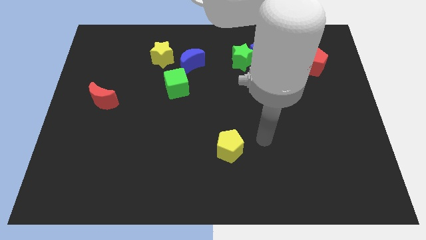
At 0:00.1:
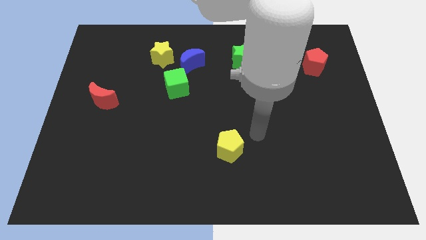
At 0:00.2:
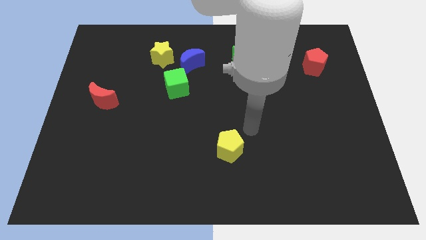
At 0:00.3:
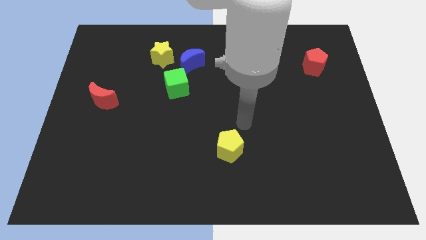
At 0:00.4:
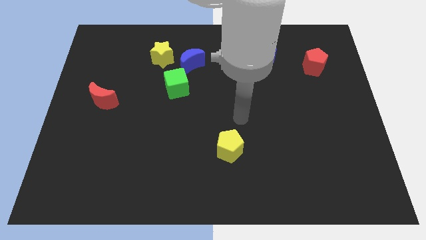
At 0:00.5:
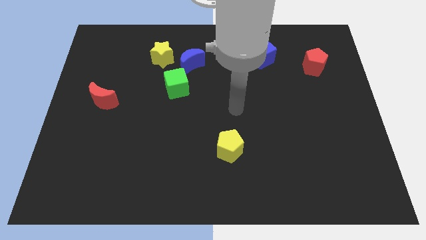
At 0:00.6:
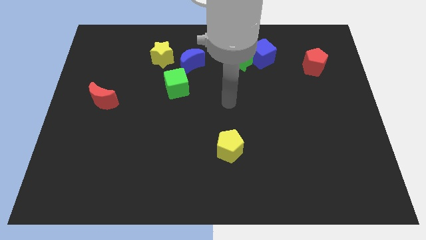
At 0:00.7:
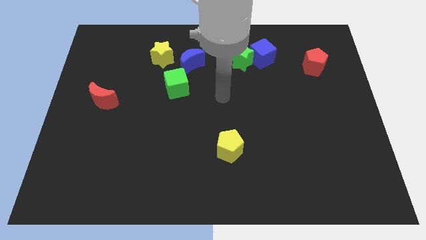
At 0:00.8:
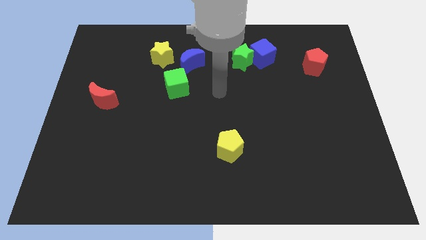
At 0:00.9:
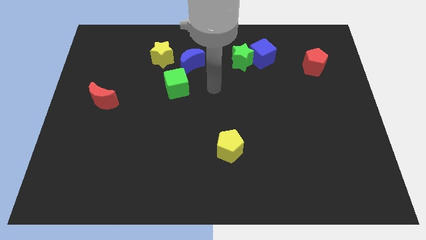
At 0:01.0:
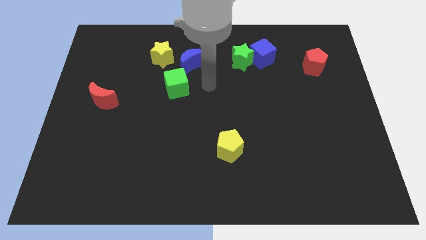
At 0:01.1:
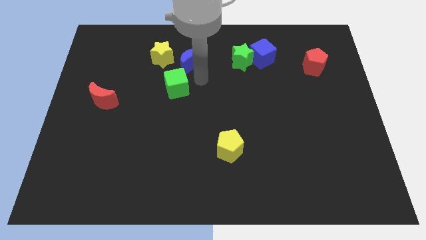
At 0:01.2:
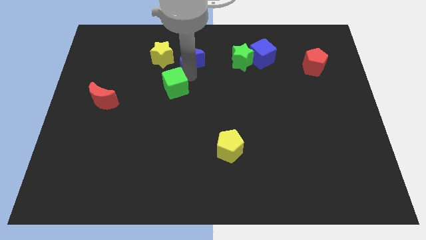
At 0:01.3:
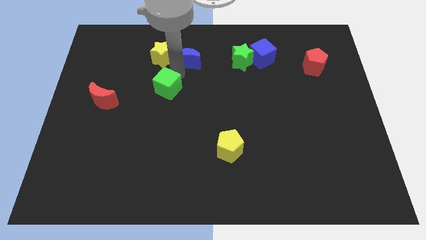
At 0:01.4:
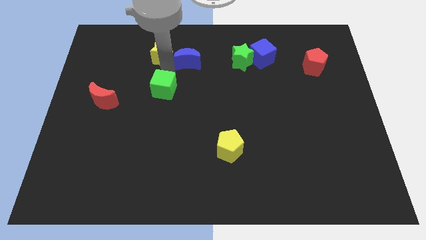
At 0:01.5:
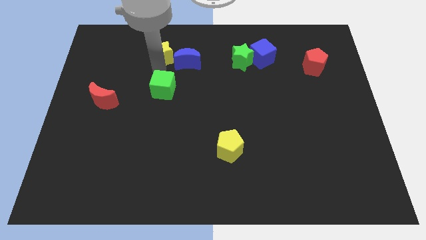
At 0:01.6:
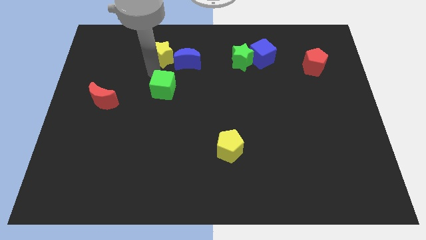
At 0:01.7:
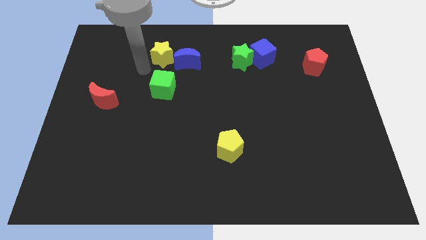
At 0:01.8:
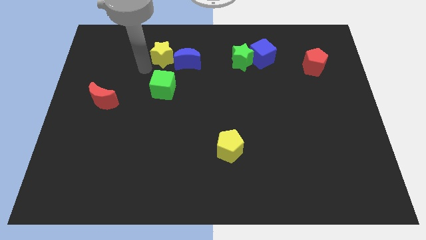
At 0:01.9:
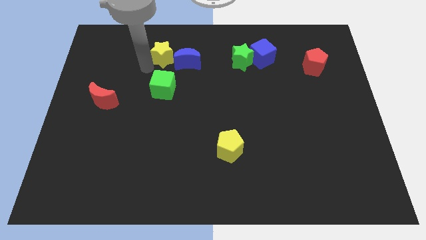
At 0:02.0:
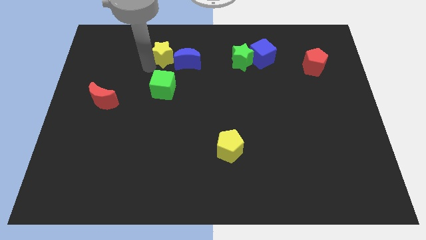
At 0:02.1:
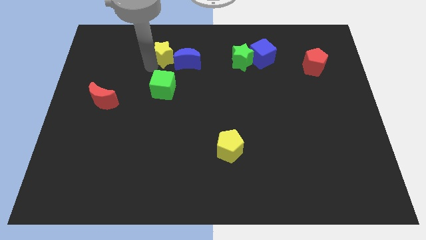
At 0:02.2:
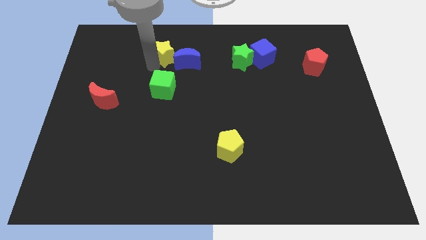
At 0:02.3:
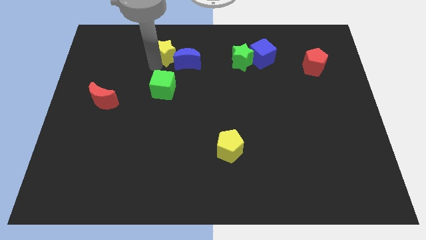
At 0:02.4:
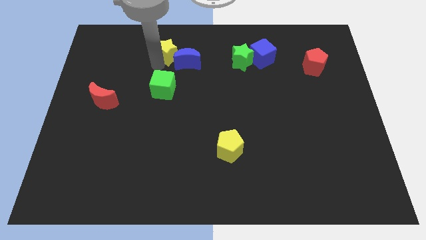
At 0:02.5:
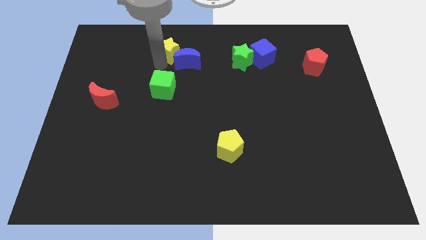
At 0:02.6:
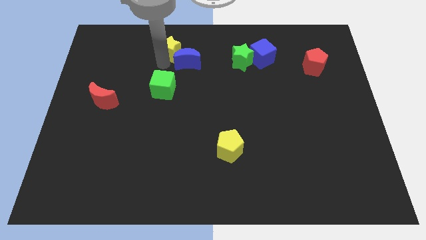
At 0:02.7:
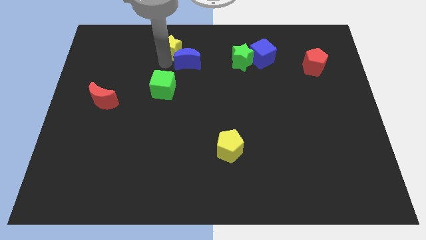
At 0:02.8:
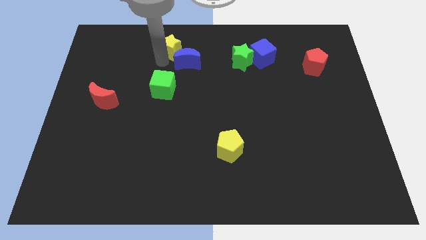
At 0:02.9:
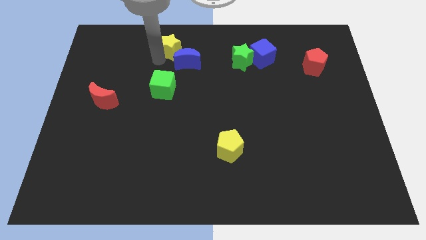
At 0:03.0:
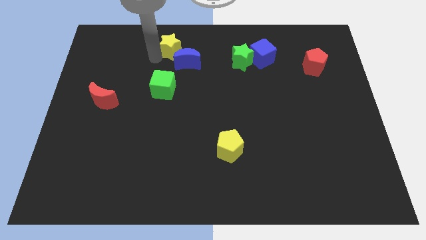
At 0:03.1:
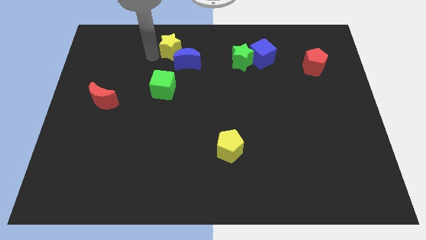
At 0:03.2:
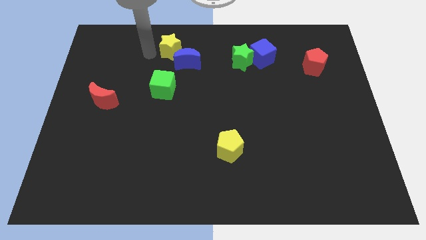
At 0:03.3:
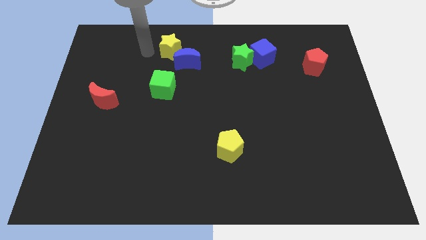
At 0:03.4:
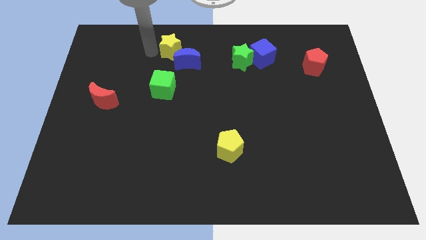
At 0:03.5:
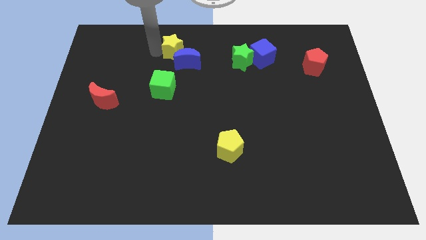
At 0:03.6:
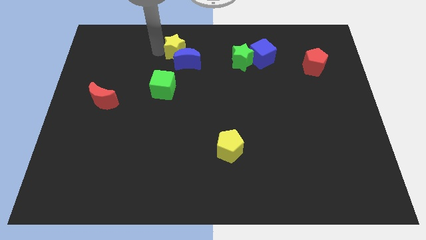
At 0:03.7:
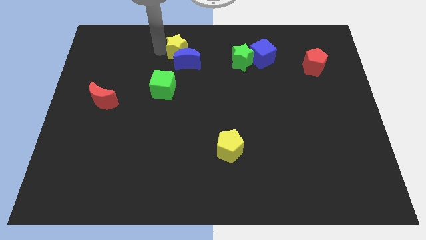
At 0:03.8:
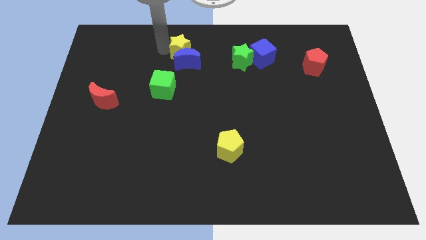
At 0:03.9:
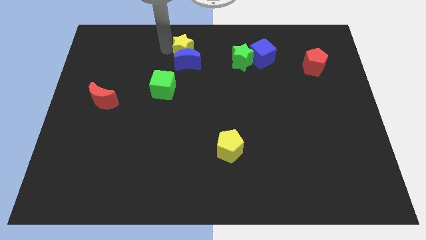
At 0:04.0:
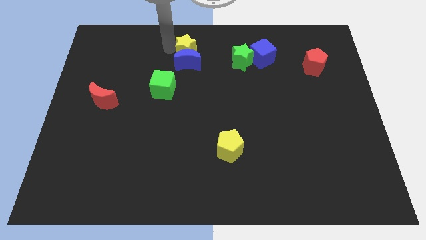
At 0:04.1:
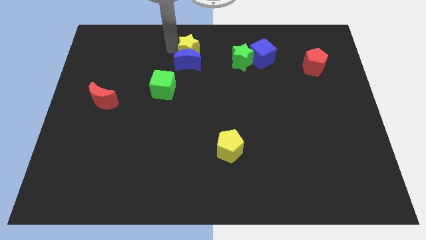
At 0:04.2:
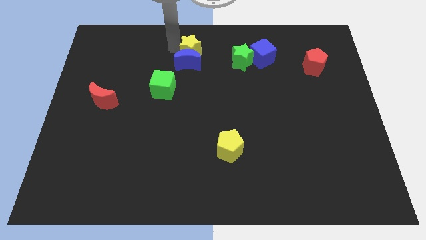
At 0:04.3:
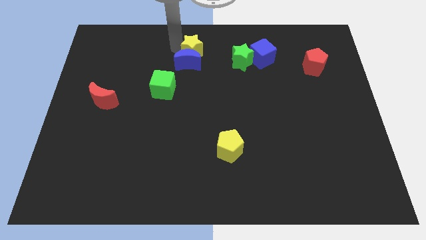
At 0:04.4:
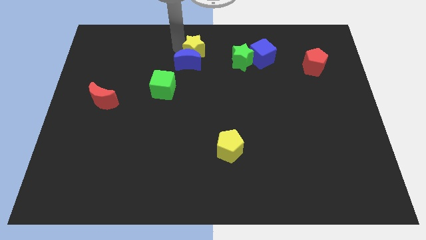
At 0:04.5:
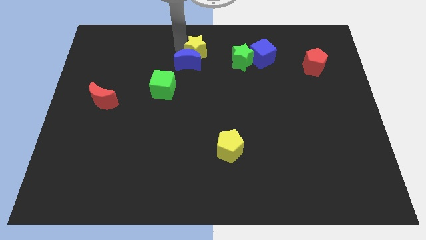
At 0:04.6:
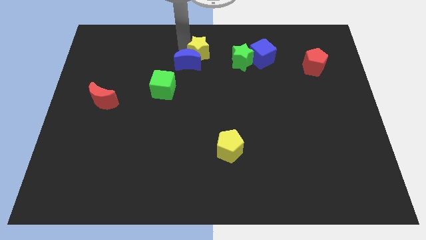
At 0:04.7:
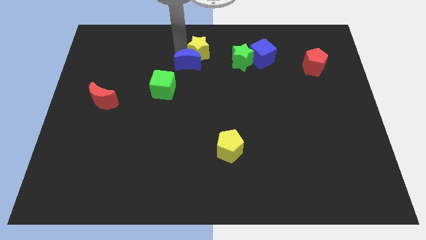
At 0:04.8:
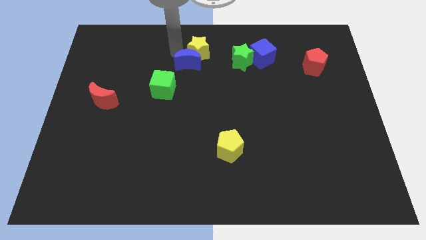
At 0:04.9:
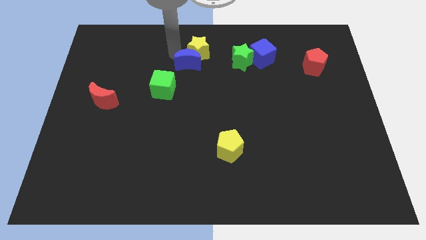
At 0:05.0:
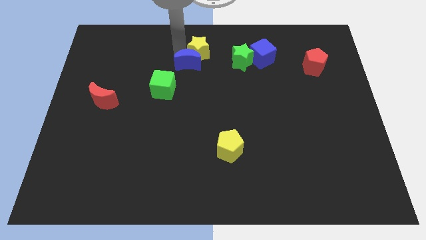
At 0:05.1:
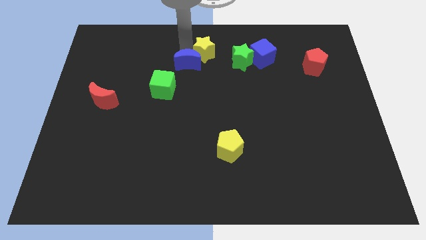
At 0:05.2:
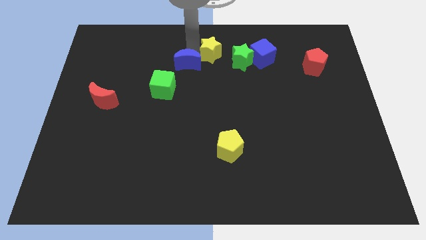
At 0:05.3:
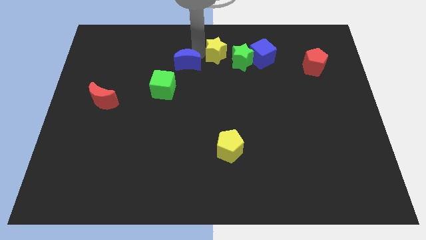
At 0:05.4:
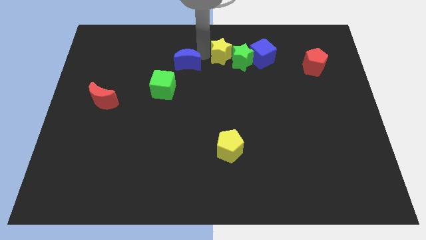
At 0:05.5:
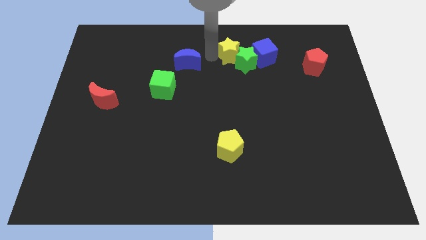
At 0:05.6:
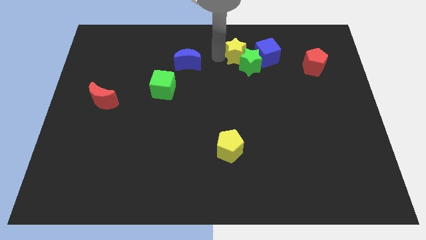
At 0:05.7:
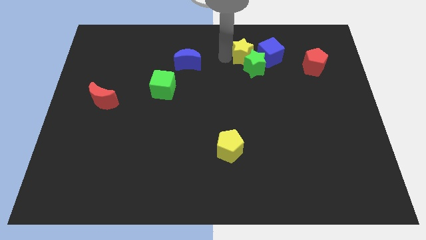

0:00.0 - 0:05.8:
push the yellow star to the right

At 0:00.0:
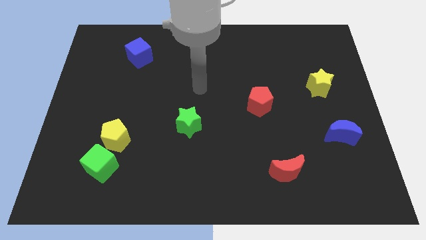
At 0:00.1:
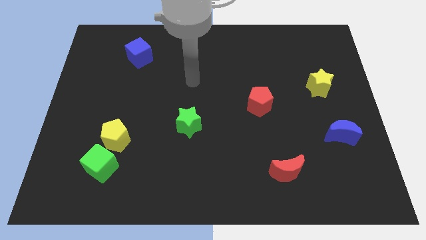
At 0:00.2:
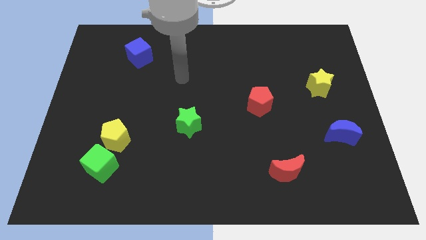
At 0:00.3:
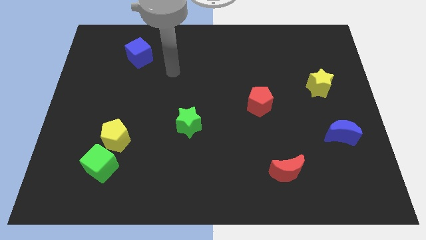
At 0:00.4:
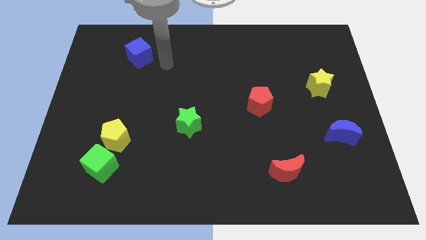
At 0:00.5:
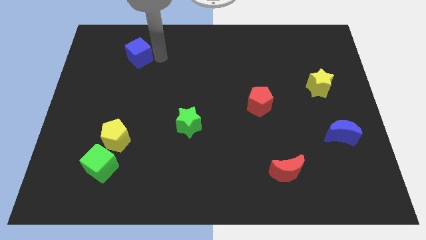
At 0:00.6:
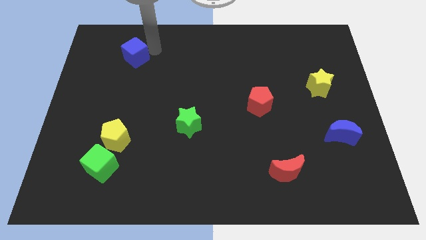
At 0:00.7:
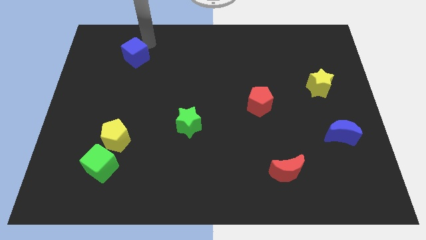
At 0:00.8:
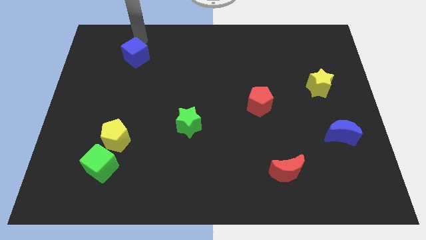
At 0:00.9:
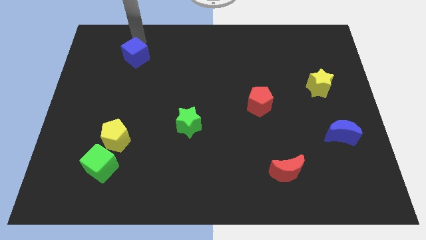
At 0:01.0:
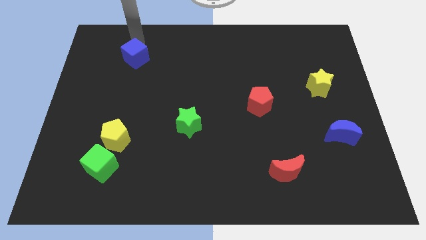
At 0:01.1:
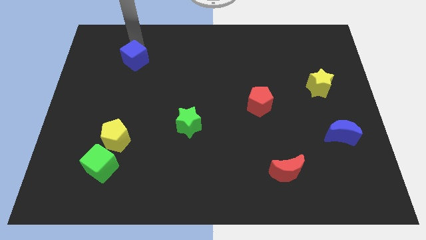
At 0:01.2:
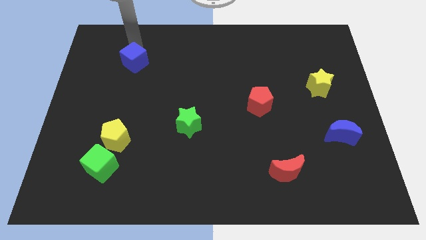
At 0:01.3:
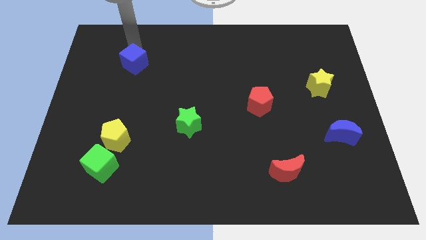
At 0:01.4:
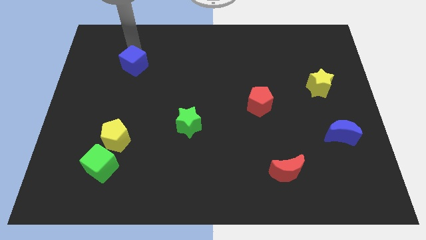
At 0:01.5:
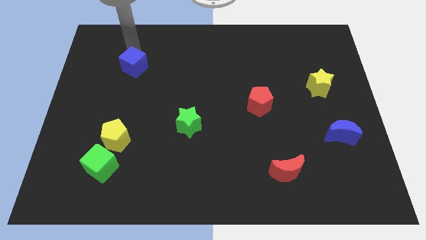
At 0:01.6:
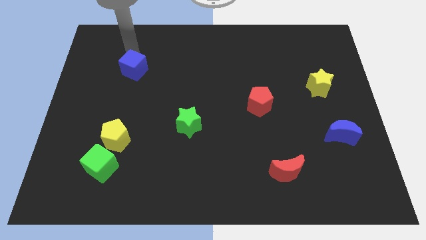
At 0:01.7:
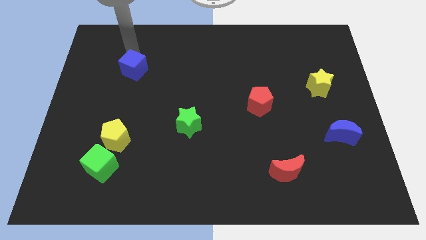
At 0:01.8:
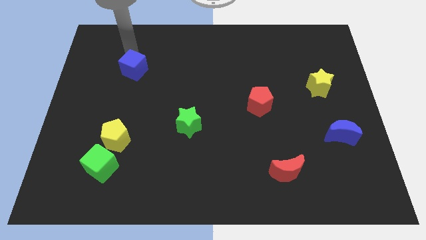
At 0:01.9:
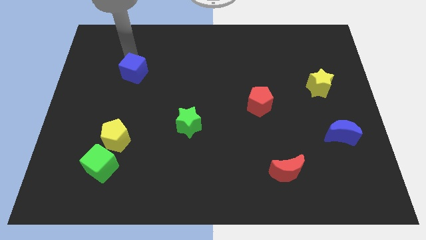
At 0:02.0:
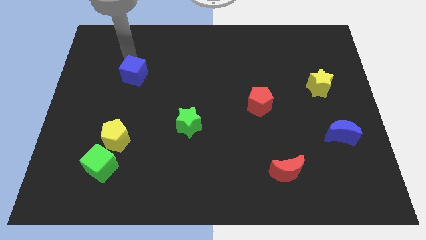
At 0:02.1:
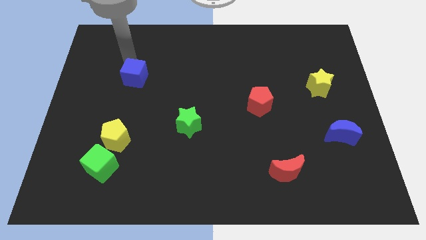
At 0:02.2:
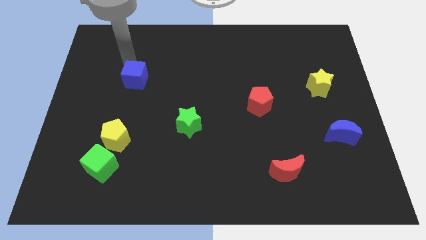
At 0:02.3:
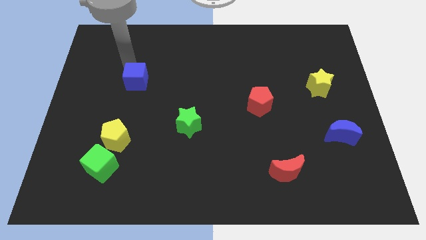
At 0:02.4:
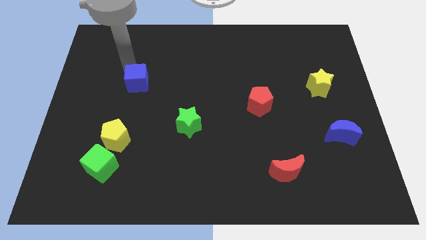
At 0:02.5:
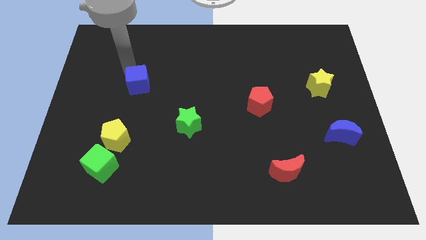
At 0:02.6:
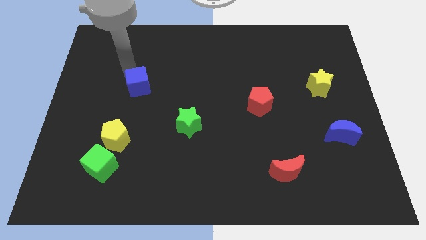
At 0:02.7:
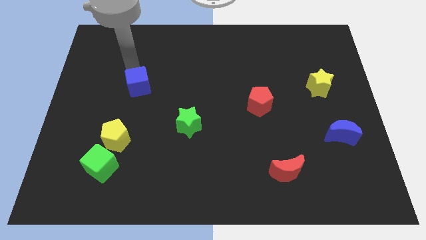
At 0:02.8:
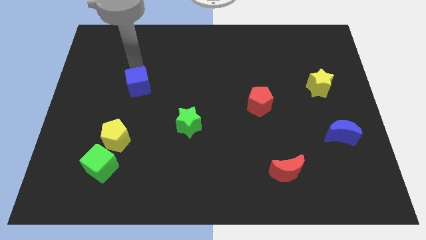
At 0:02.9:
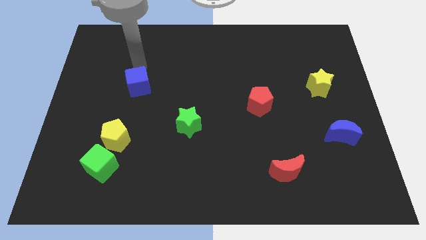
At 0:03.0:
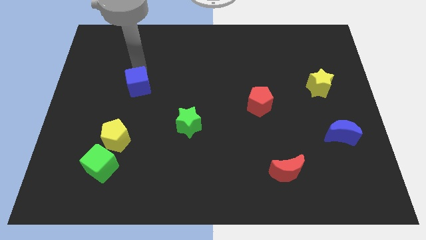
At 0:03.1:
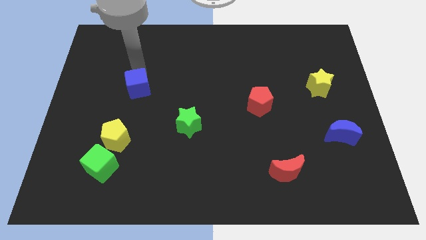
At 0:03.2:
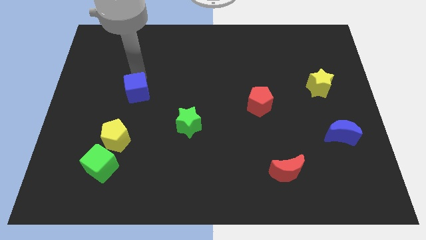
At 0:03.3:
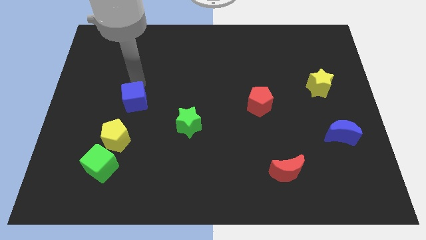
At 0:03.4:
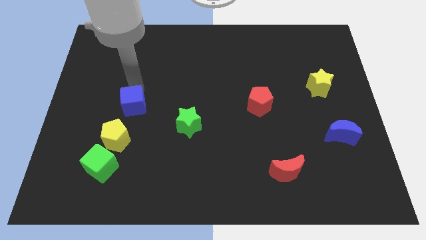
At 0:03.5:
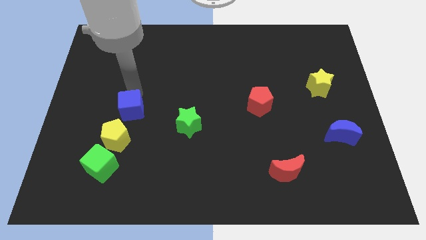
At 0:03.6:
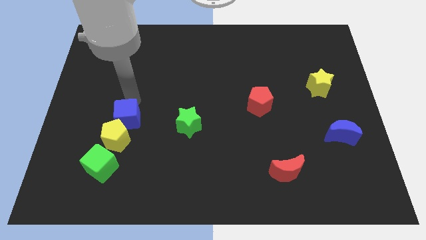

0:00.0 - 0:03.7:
move the blue cube downwards
